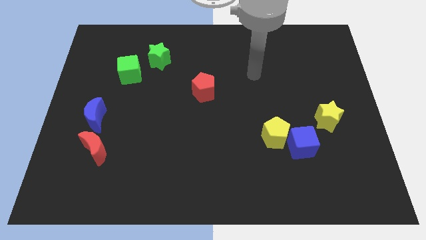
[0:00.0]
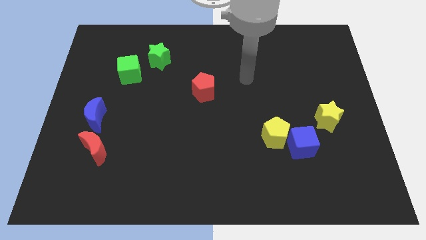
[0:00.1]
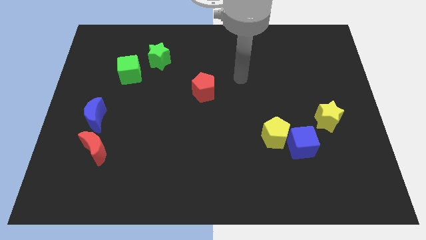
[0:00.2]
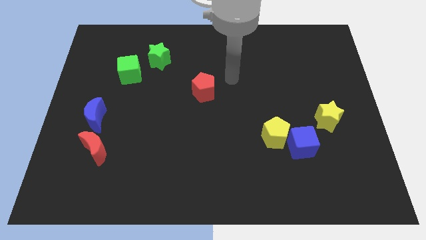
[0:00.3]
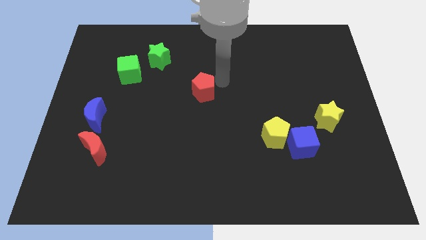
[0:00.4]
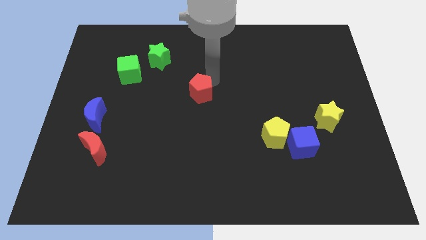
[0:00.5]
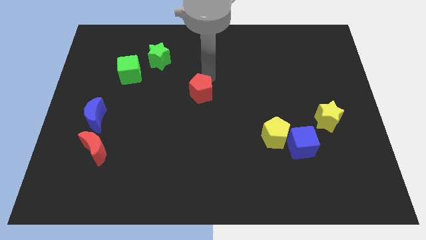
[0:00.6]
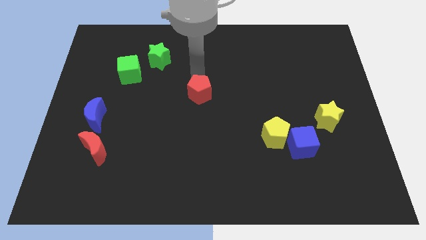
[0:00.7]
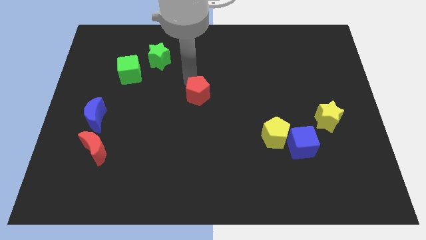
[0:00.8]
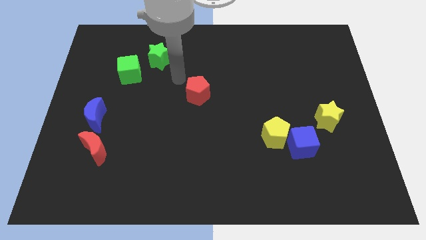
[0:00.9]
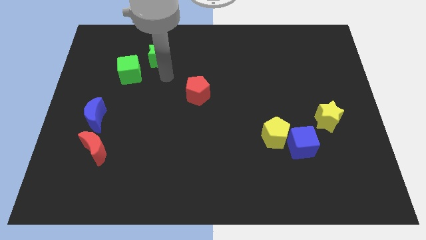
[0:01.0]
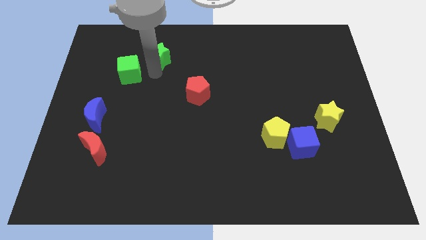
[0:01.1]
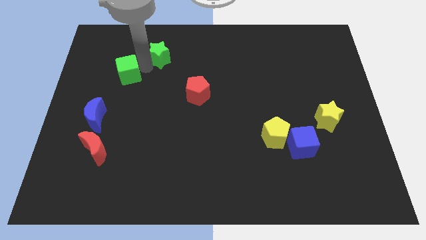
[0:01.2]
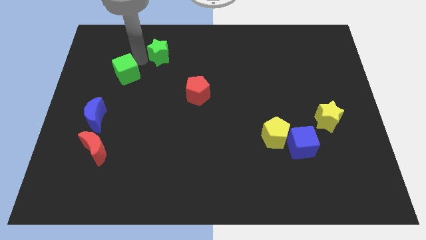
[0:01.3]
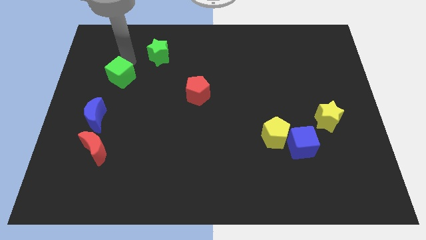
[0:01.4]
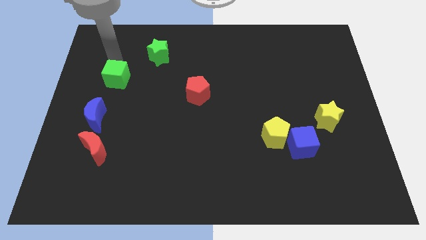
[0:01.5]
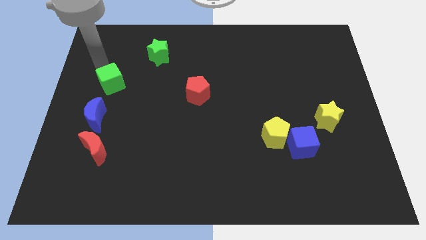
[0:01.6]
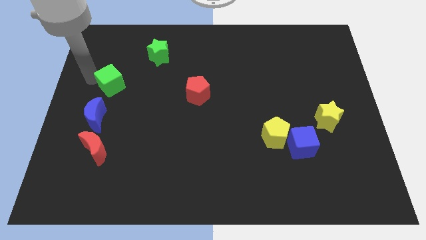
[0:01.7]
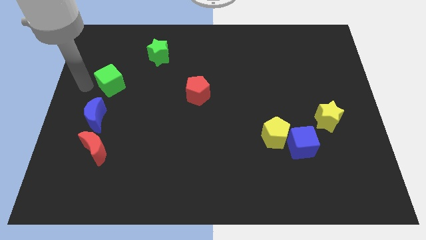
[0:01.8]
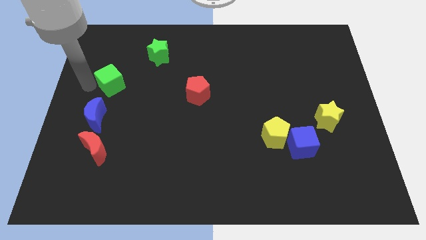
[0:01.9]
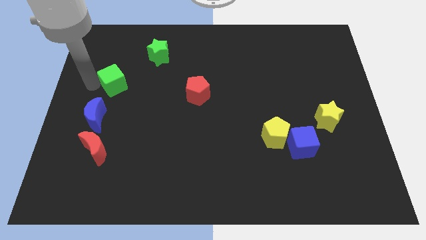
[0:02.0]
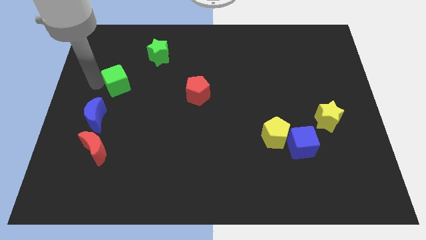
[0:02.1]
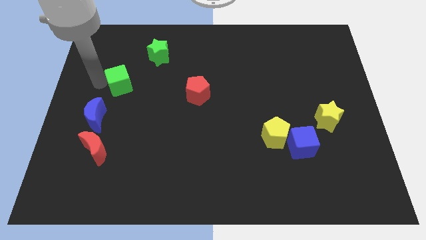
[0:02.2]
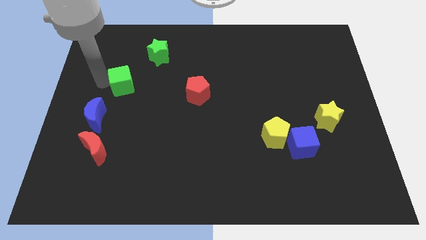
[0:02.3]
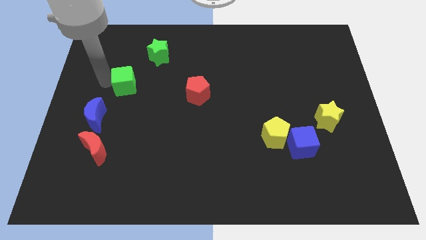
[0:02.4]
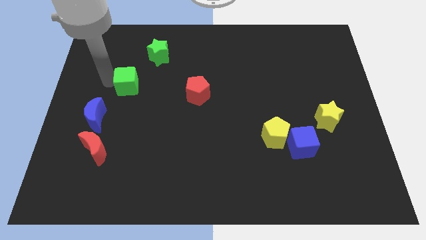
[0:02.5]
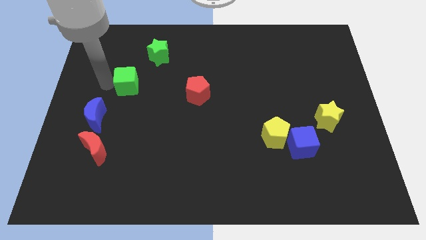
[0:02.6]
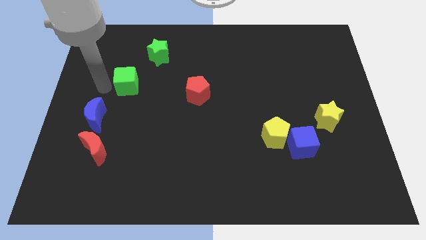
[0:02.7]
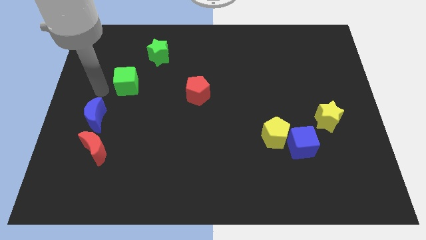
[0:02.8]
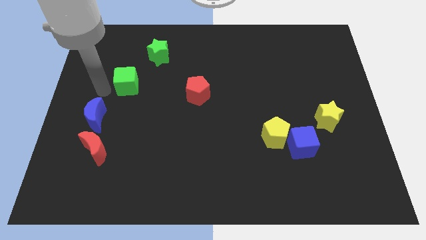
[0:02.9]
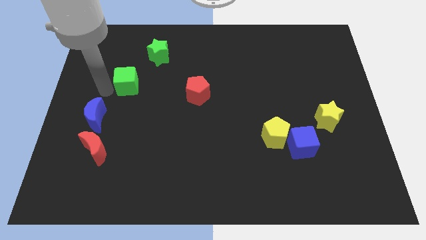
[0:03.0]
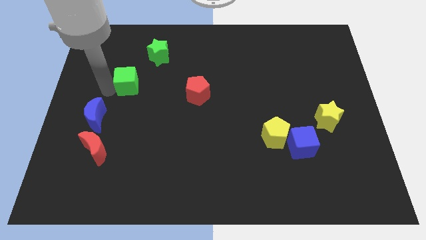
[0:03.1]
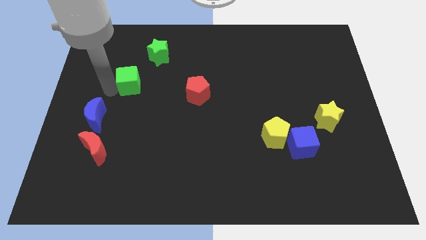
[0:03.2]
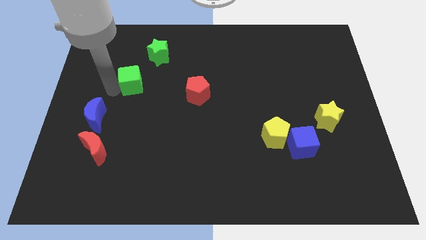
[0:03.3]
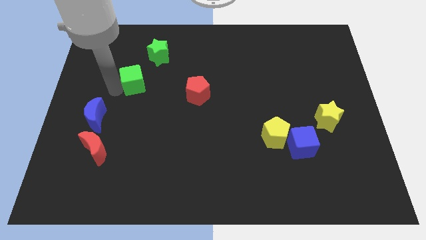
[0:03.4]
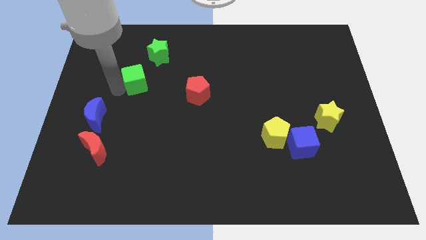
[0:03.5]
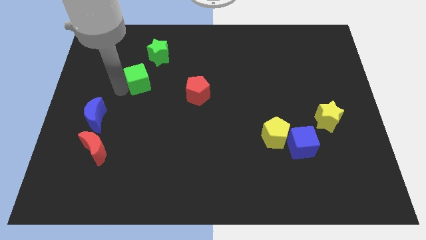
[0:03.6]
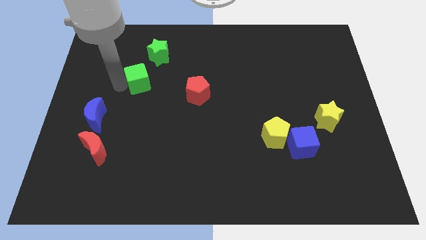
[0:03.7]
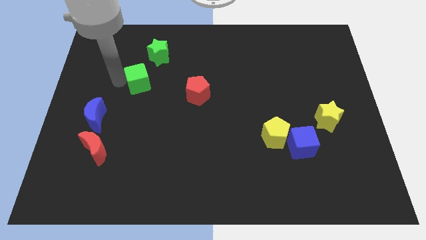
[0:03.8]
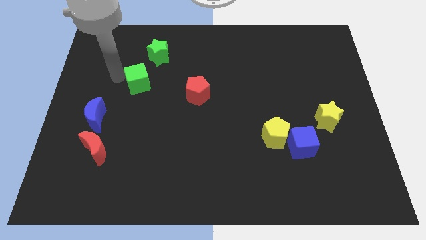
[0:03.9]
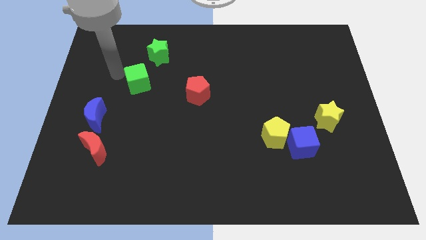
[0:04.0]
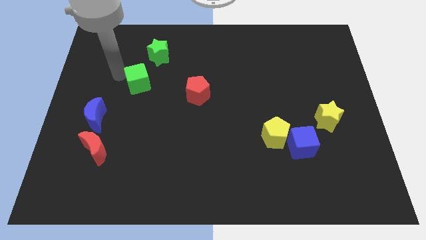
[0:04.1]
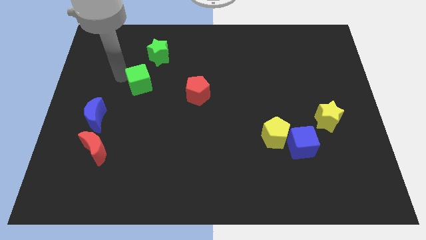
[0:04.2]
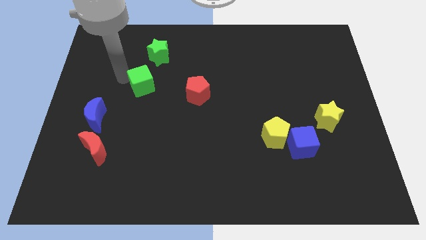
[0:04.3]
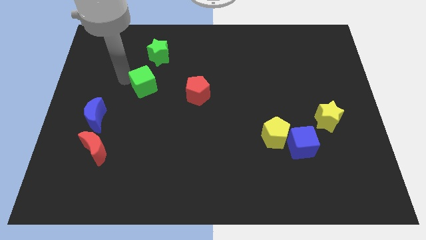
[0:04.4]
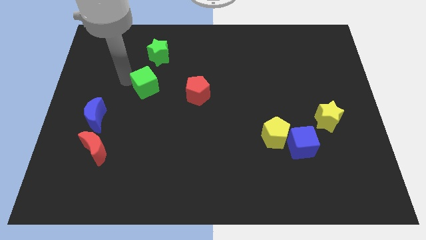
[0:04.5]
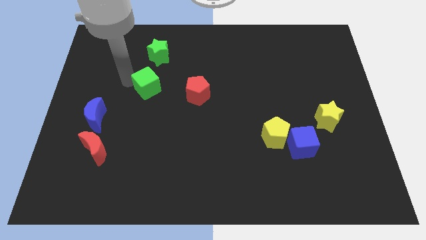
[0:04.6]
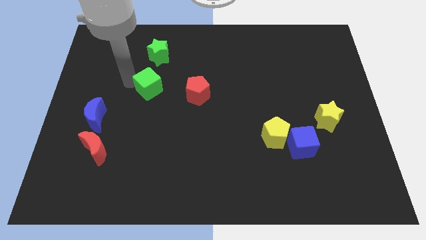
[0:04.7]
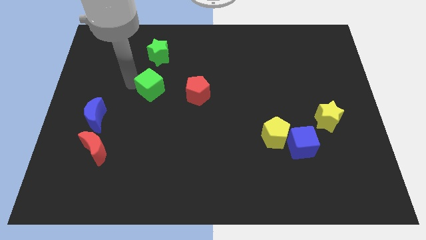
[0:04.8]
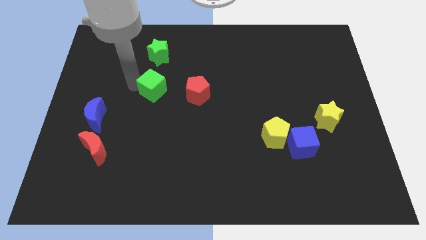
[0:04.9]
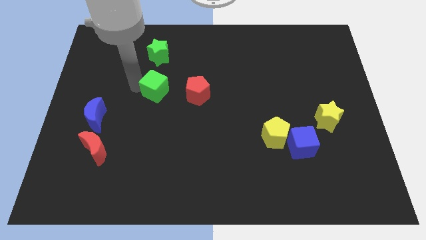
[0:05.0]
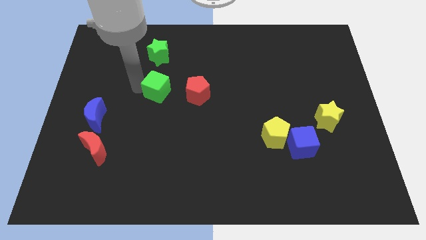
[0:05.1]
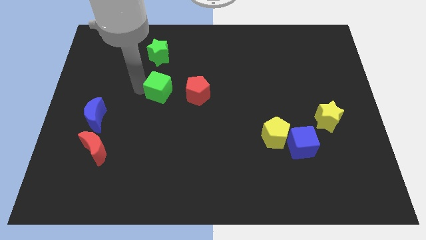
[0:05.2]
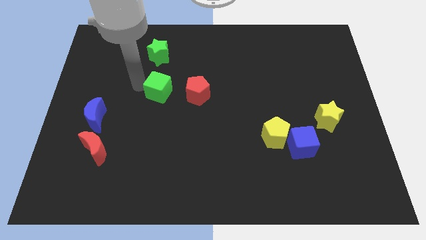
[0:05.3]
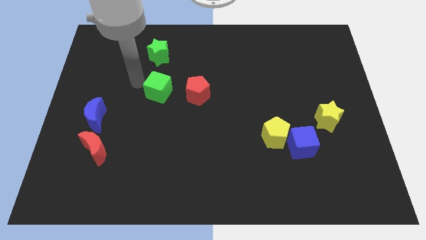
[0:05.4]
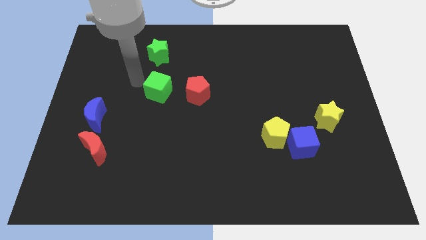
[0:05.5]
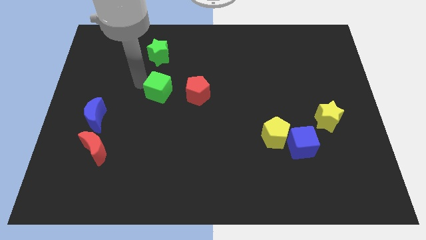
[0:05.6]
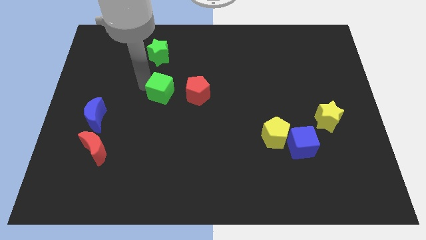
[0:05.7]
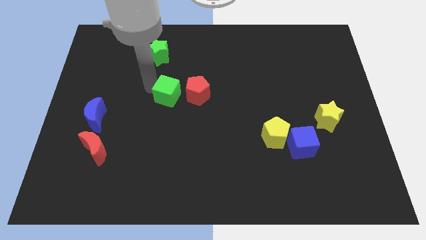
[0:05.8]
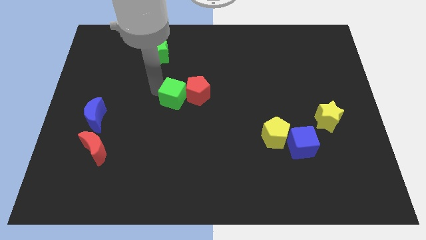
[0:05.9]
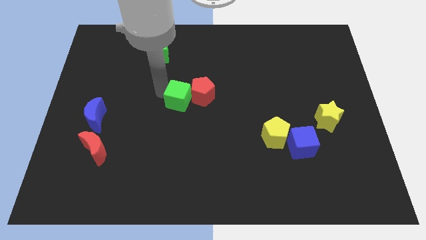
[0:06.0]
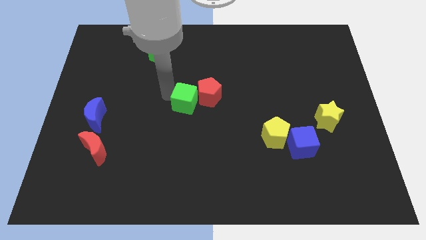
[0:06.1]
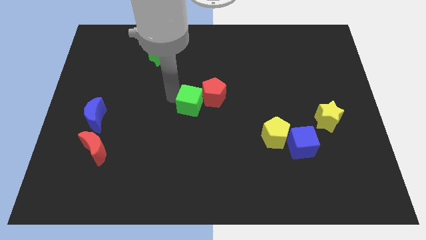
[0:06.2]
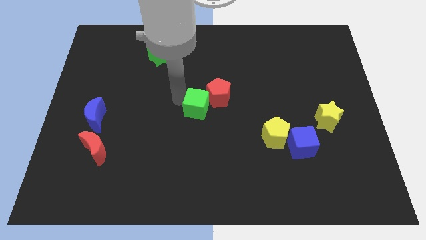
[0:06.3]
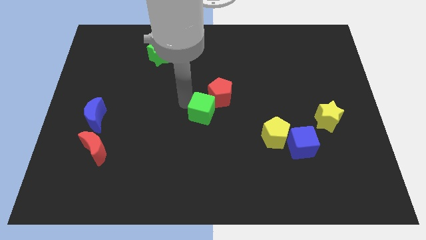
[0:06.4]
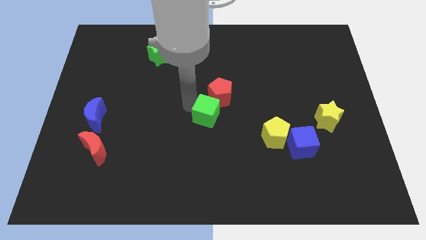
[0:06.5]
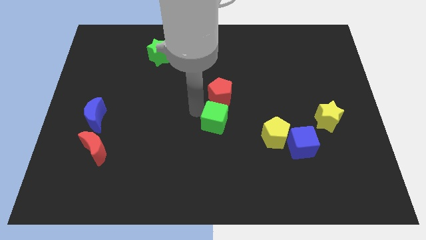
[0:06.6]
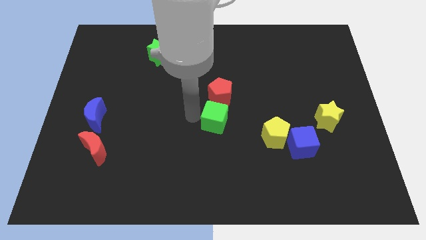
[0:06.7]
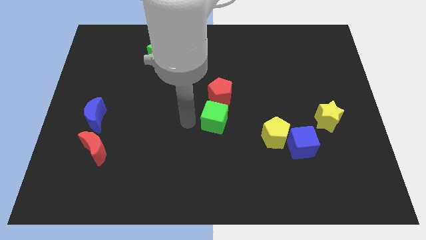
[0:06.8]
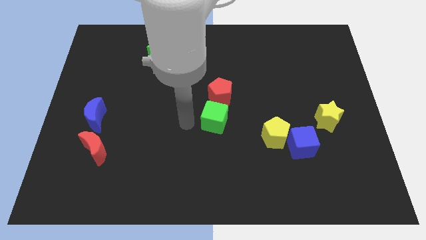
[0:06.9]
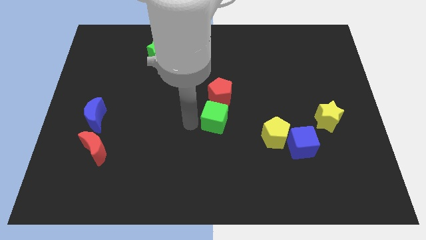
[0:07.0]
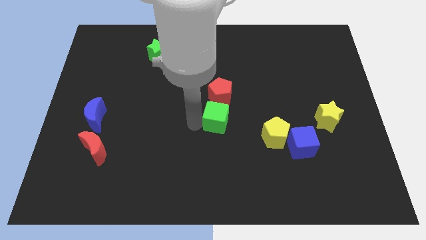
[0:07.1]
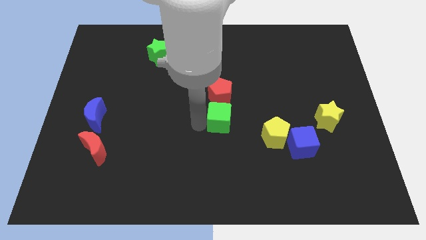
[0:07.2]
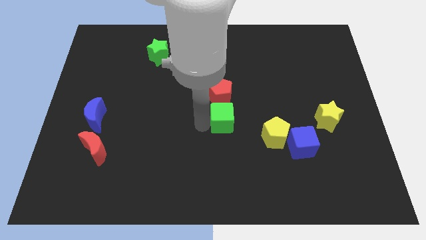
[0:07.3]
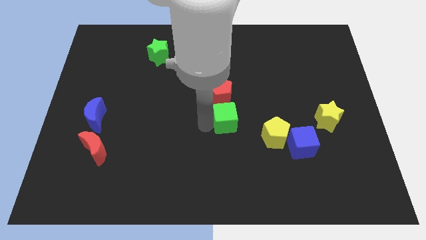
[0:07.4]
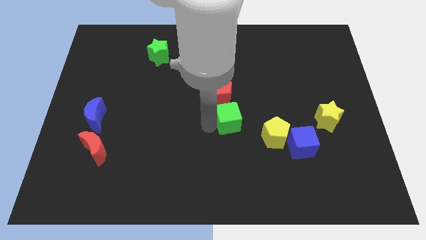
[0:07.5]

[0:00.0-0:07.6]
push the green cube diagonally up and to the left of the yellow pentagon
